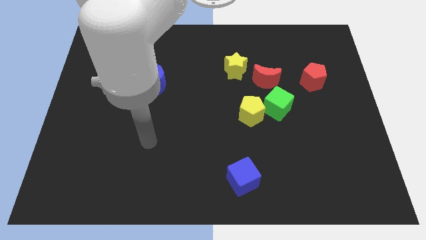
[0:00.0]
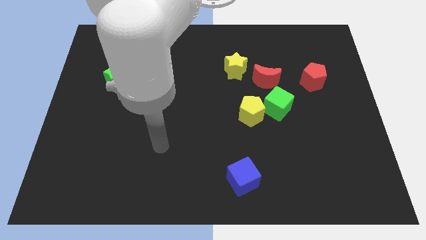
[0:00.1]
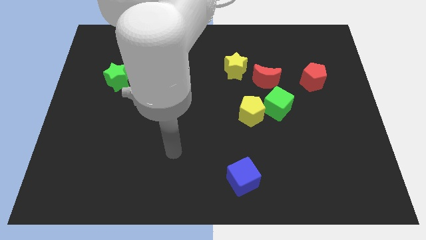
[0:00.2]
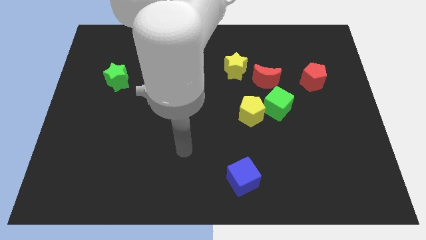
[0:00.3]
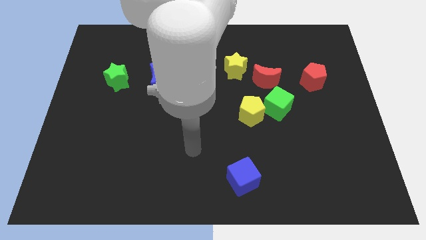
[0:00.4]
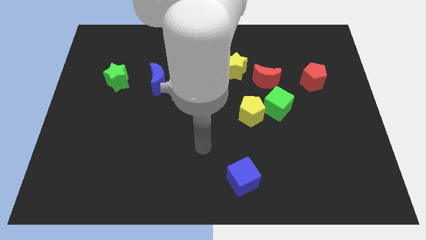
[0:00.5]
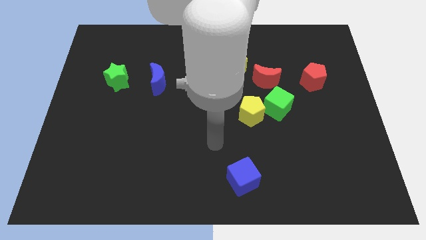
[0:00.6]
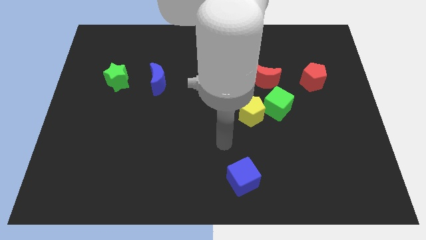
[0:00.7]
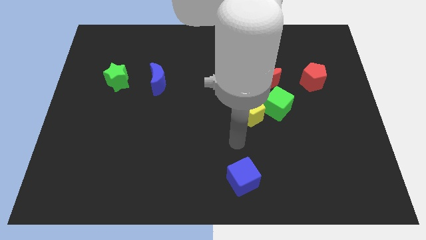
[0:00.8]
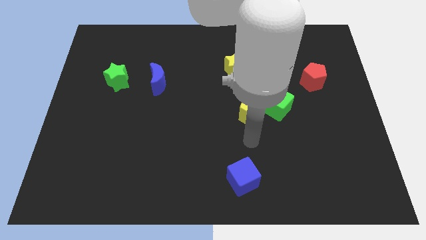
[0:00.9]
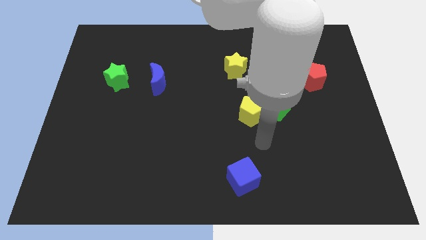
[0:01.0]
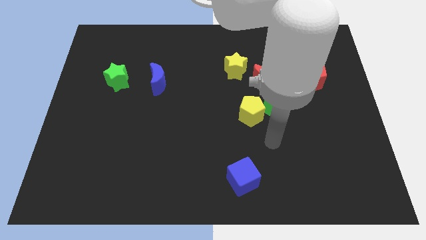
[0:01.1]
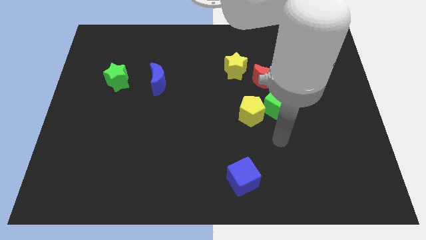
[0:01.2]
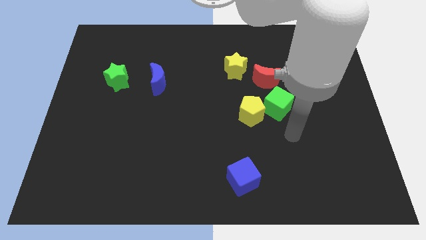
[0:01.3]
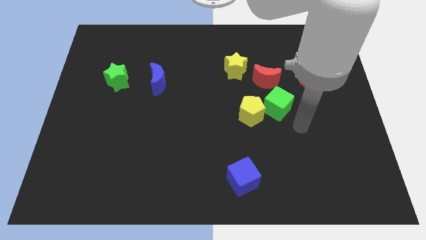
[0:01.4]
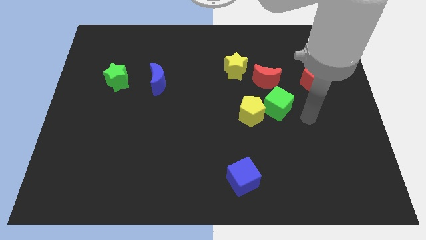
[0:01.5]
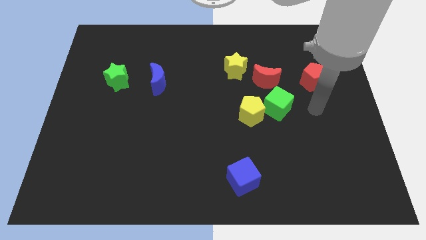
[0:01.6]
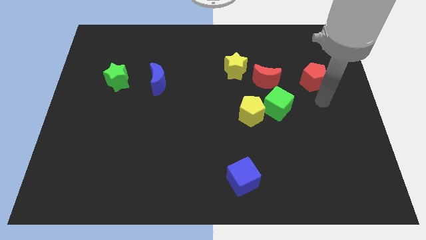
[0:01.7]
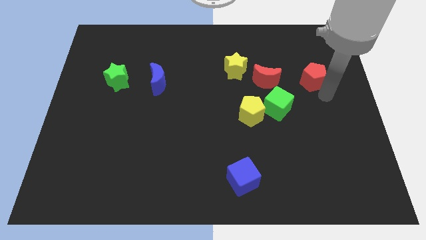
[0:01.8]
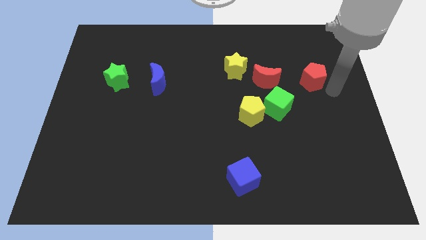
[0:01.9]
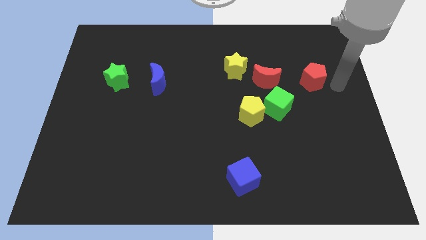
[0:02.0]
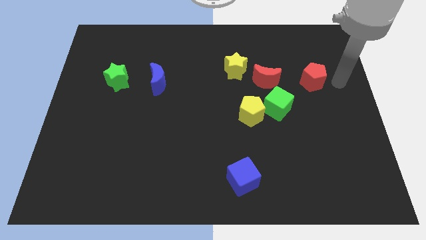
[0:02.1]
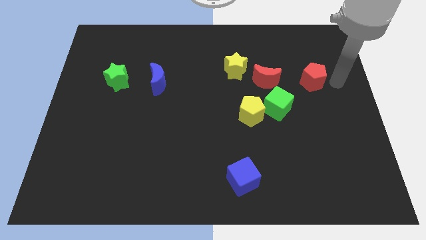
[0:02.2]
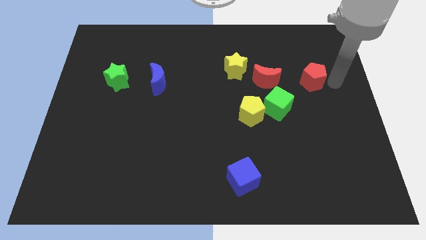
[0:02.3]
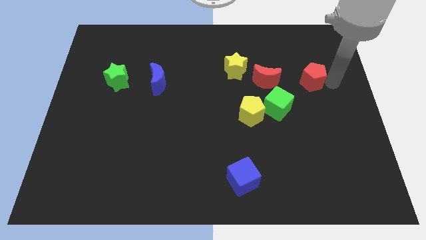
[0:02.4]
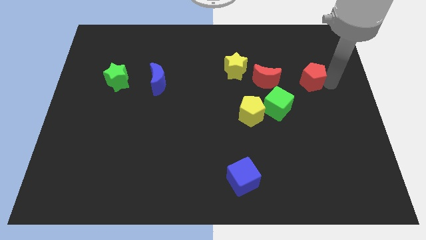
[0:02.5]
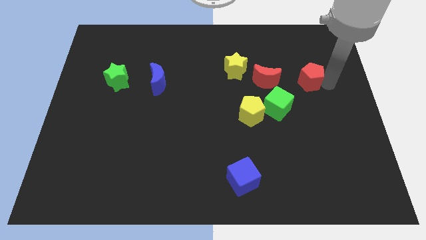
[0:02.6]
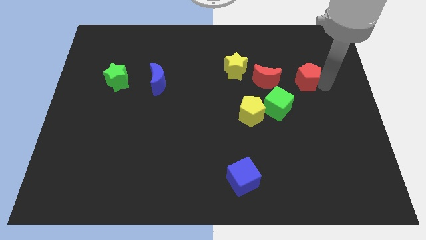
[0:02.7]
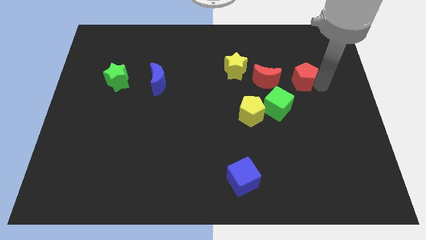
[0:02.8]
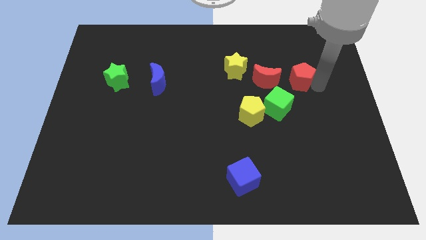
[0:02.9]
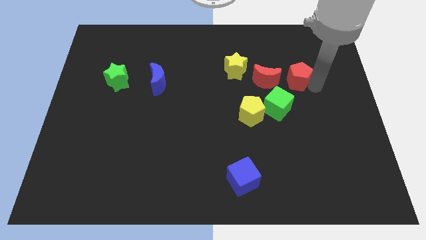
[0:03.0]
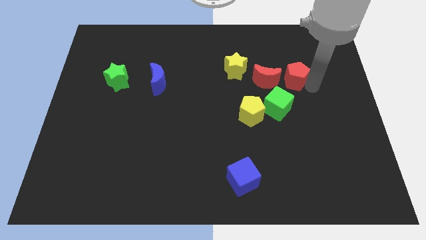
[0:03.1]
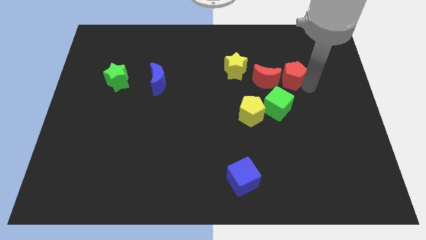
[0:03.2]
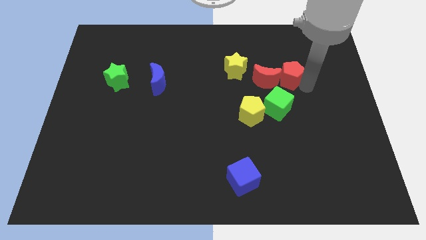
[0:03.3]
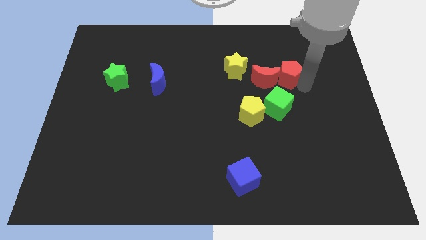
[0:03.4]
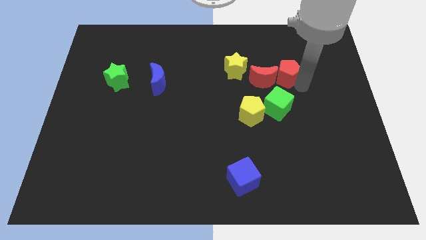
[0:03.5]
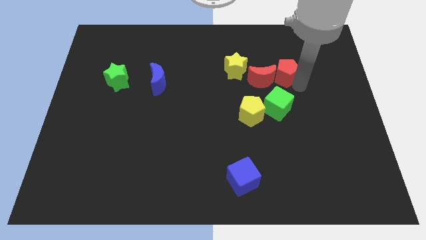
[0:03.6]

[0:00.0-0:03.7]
slide the red pentagon left a little bit

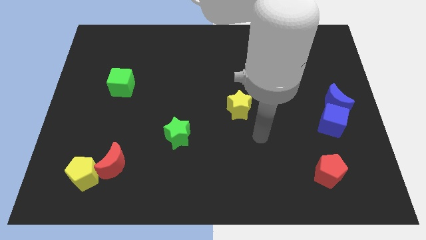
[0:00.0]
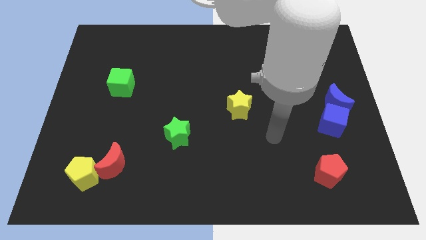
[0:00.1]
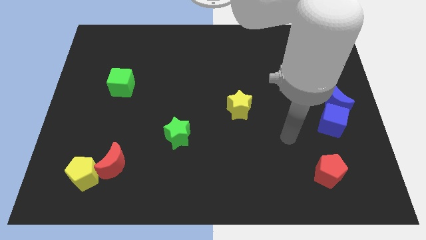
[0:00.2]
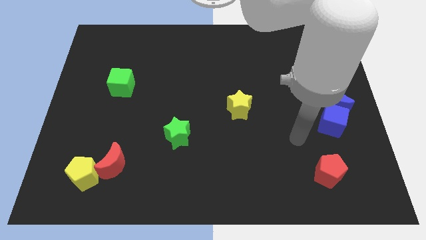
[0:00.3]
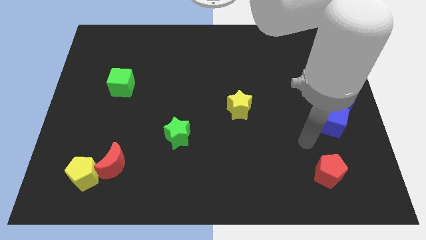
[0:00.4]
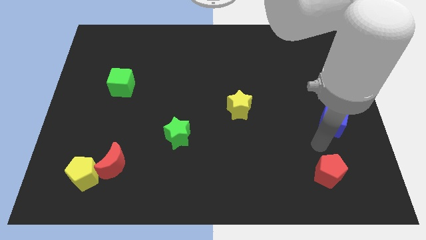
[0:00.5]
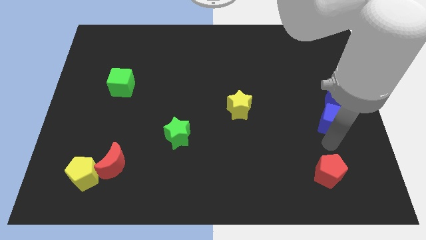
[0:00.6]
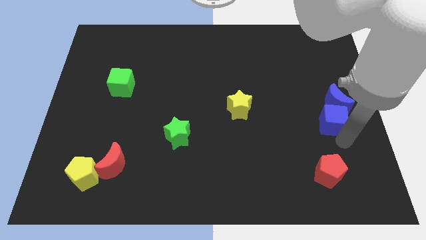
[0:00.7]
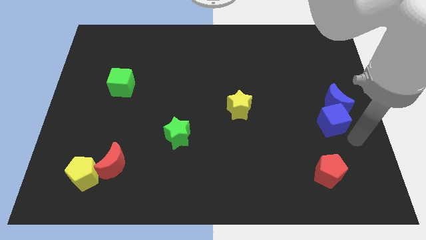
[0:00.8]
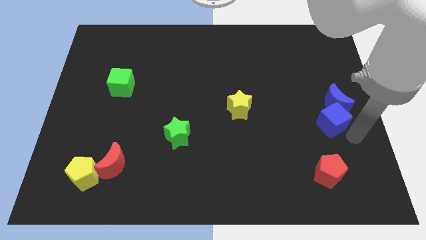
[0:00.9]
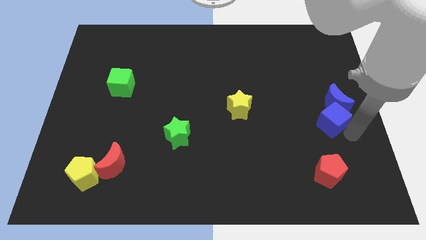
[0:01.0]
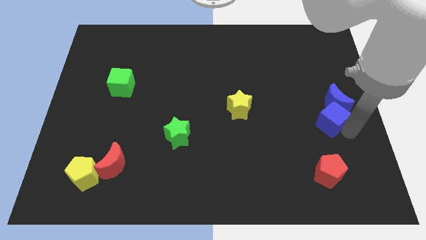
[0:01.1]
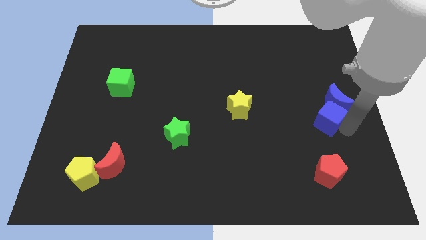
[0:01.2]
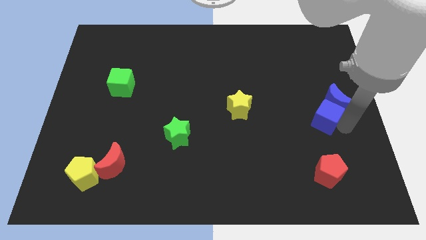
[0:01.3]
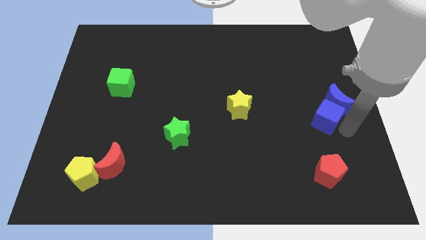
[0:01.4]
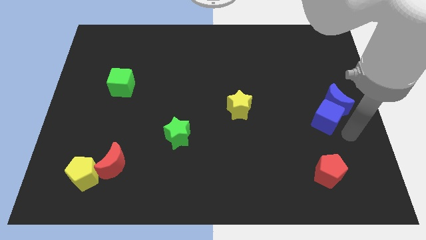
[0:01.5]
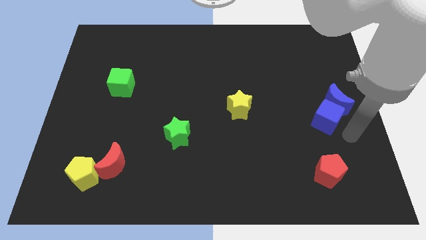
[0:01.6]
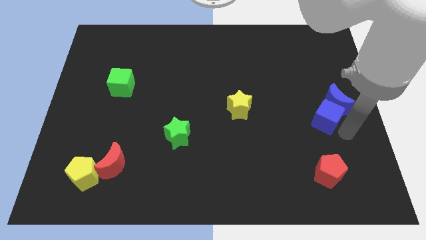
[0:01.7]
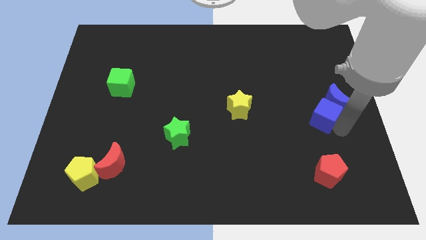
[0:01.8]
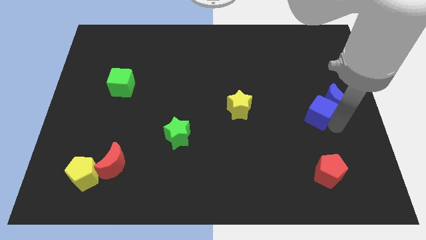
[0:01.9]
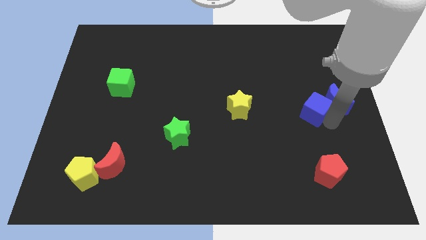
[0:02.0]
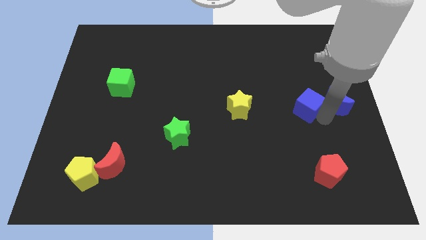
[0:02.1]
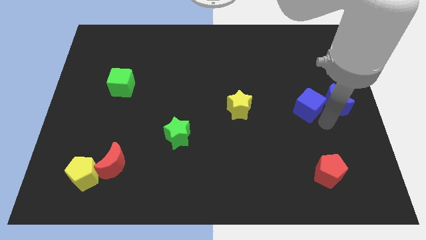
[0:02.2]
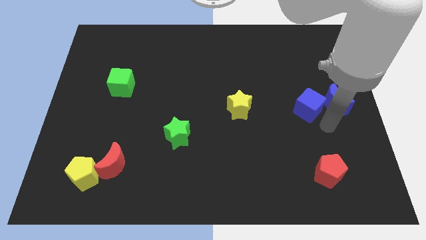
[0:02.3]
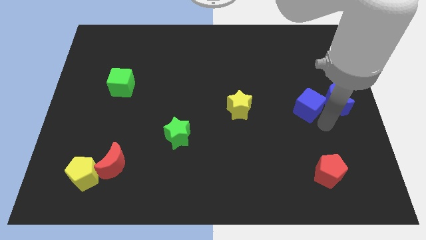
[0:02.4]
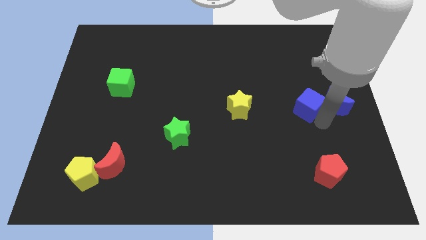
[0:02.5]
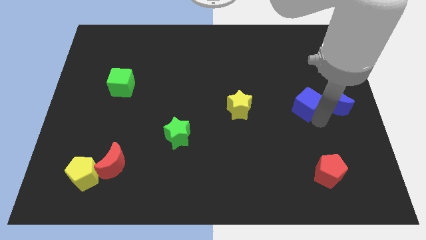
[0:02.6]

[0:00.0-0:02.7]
move the blue cube a little bit upwards and to the left diagonally

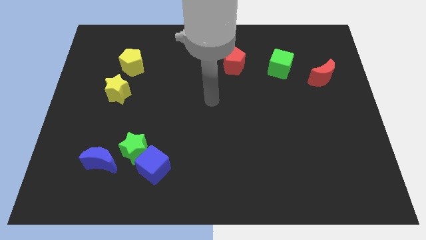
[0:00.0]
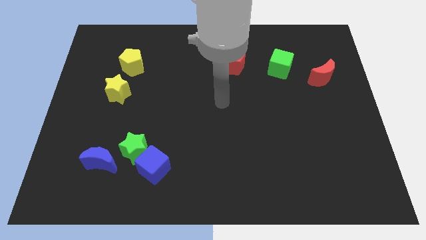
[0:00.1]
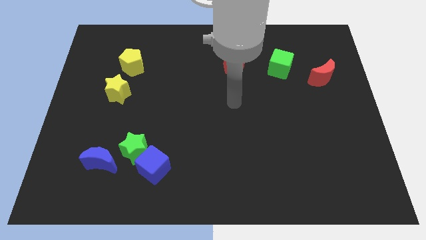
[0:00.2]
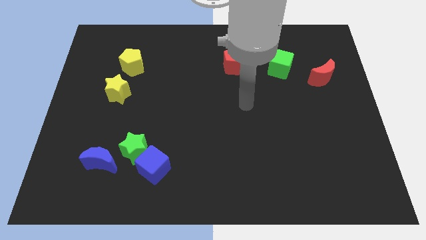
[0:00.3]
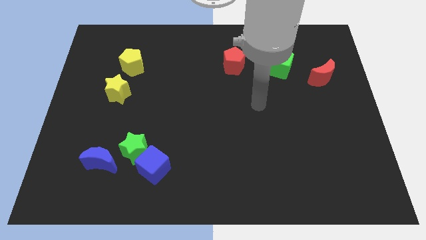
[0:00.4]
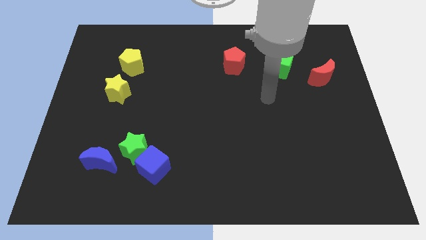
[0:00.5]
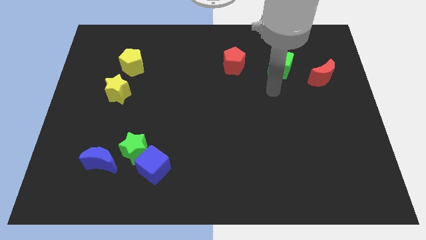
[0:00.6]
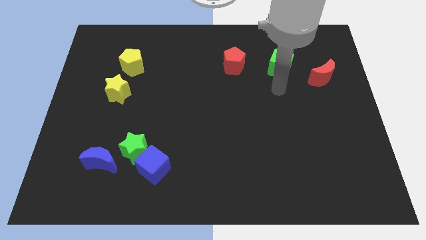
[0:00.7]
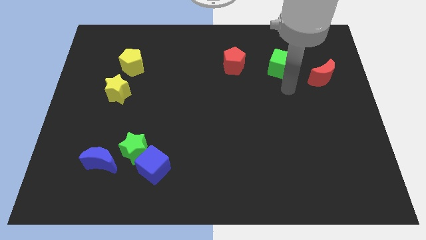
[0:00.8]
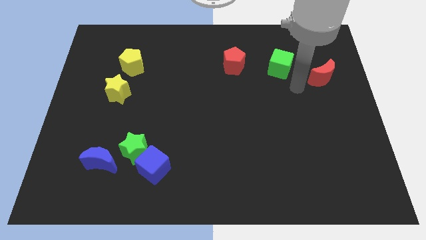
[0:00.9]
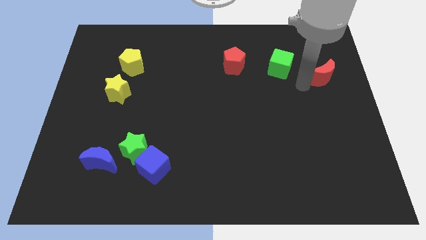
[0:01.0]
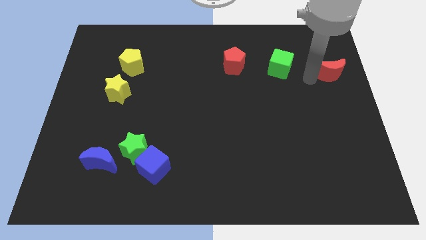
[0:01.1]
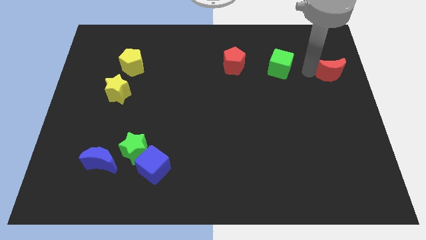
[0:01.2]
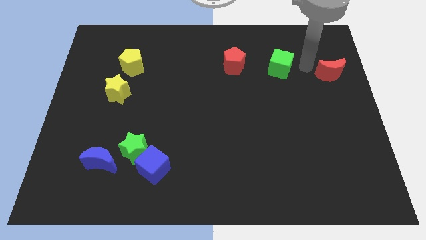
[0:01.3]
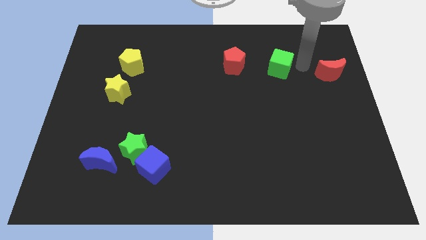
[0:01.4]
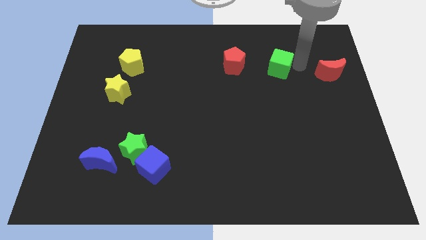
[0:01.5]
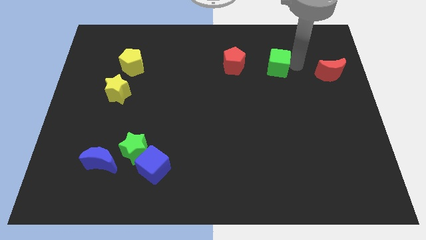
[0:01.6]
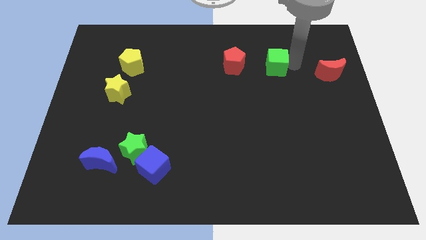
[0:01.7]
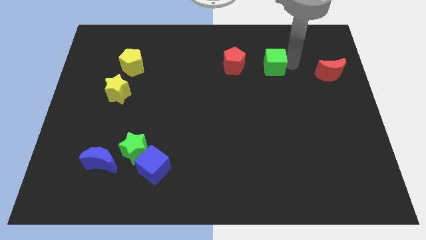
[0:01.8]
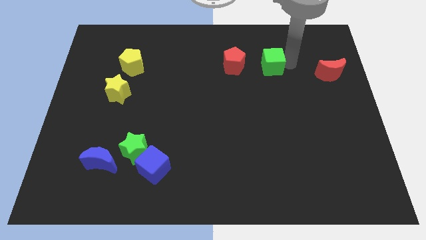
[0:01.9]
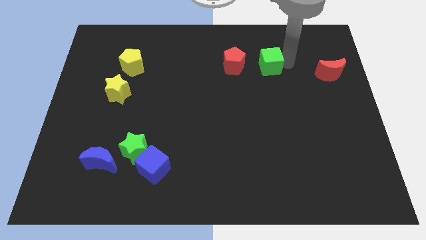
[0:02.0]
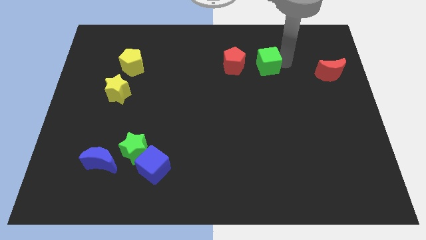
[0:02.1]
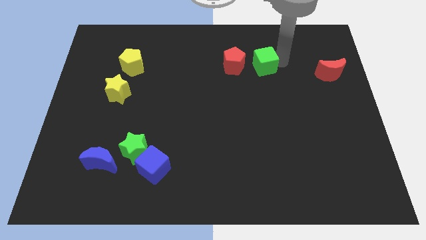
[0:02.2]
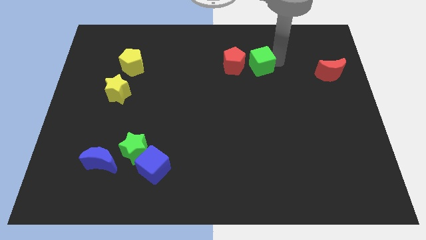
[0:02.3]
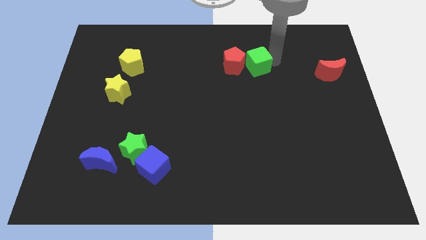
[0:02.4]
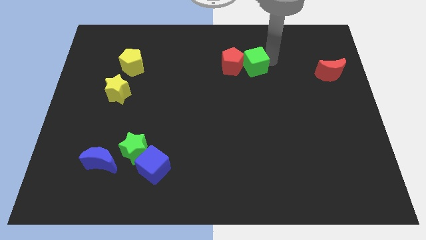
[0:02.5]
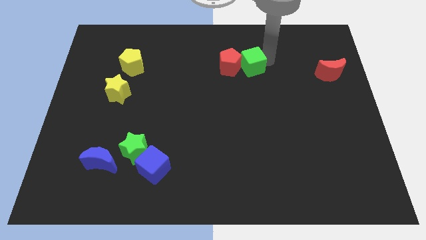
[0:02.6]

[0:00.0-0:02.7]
slightly move the green cube left
